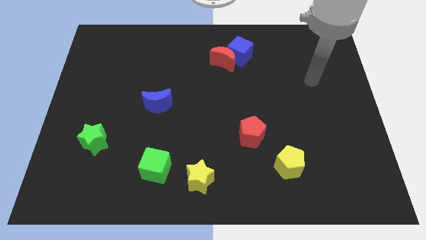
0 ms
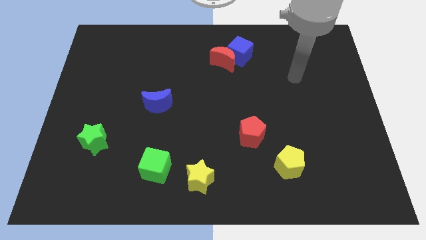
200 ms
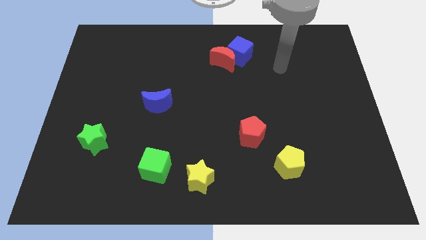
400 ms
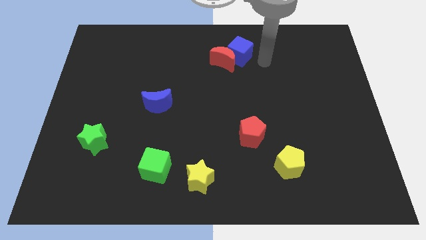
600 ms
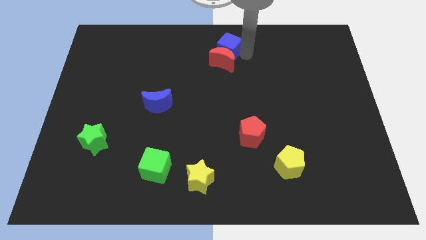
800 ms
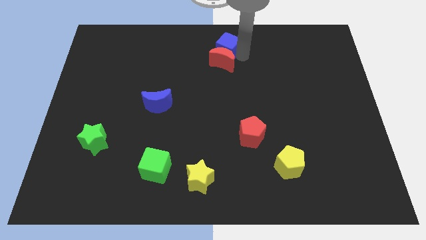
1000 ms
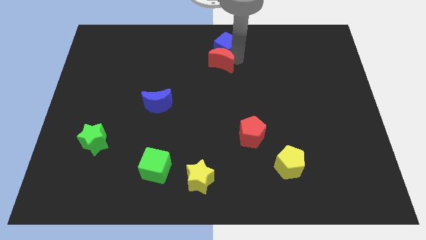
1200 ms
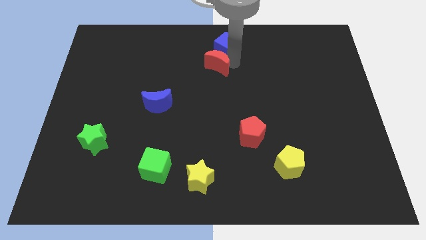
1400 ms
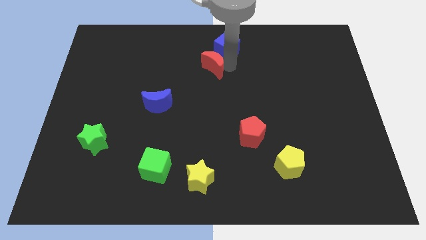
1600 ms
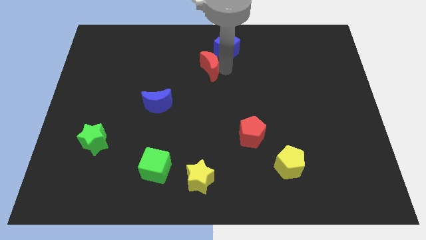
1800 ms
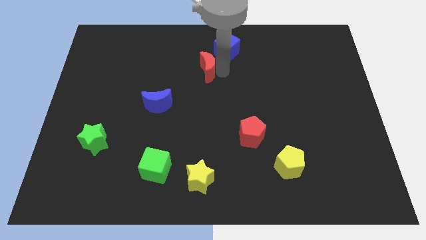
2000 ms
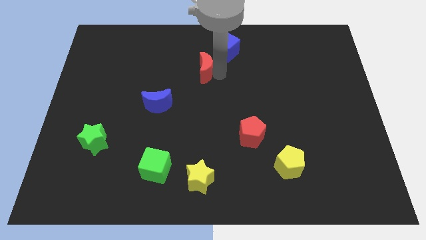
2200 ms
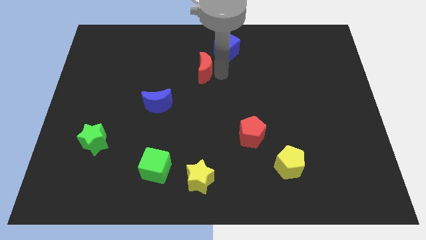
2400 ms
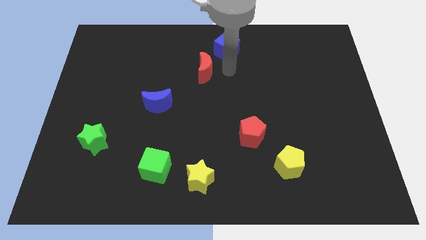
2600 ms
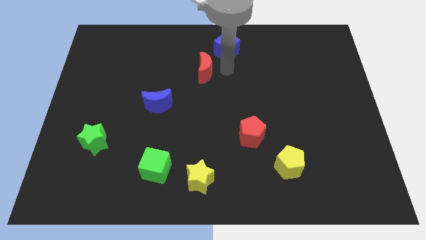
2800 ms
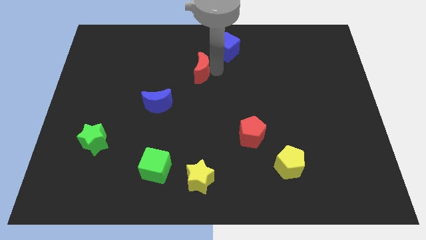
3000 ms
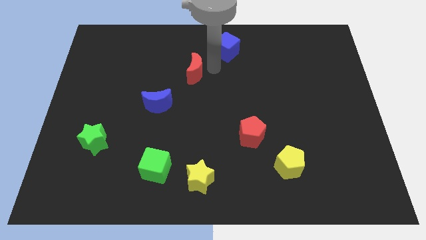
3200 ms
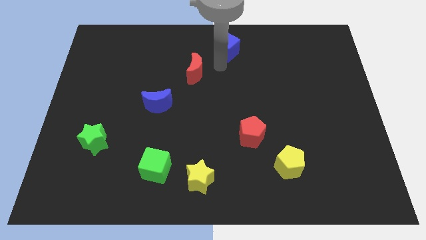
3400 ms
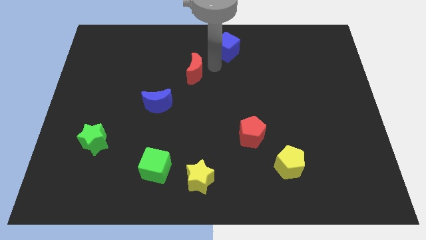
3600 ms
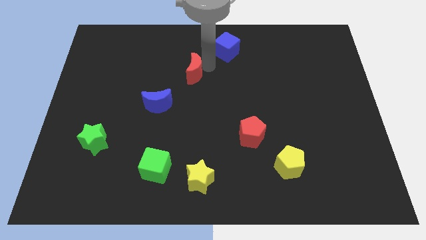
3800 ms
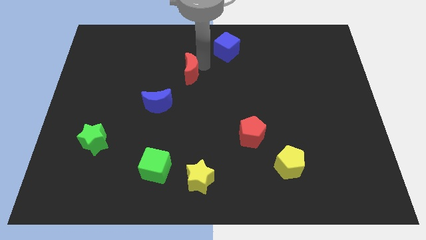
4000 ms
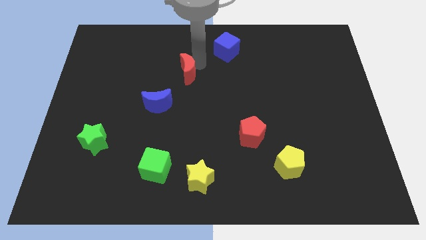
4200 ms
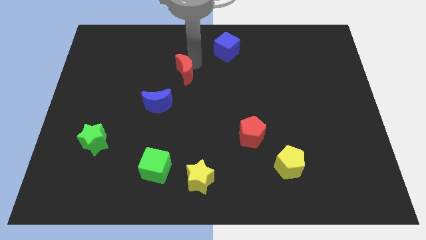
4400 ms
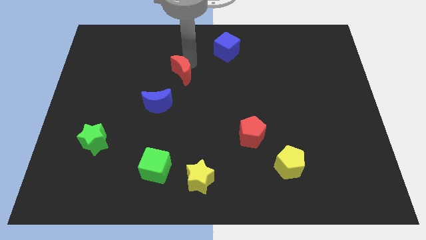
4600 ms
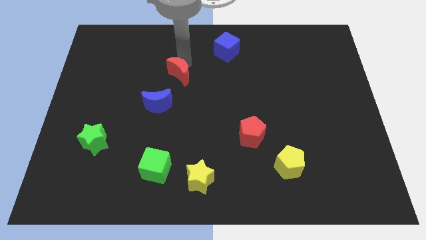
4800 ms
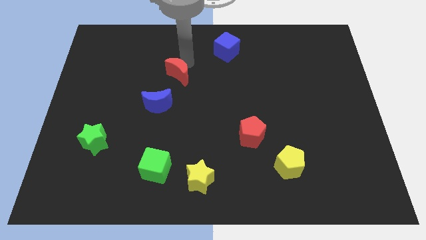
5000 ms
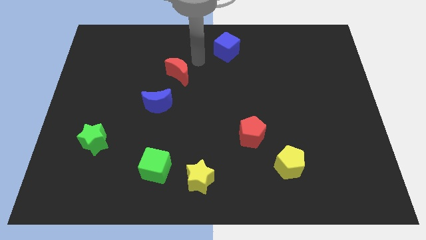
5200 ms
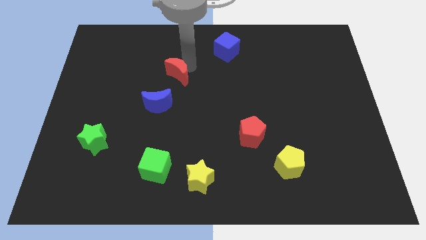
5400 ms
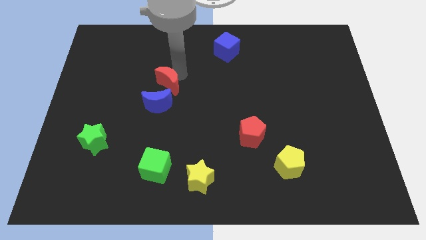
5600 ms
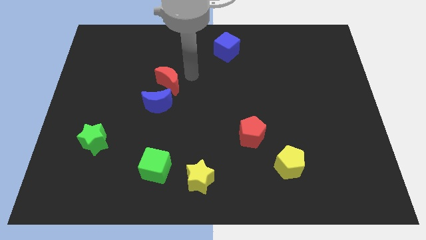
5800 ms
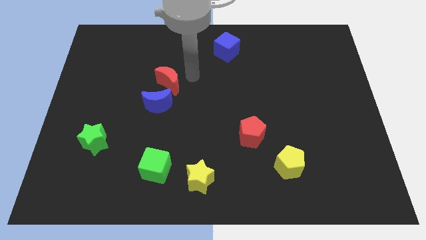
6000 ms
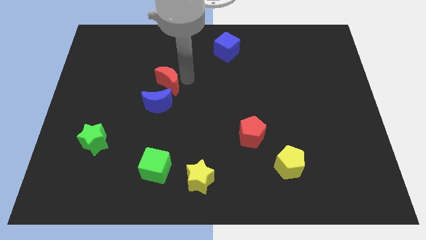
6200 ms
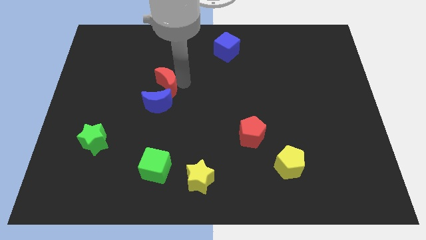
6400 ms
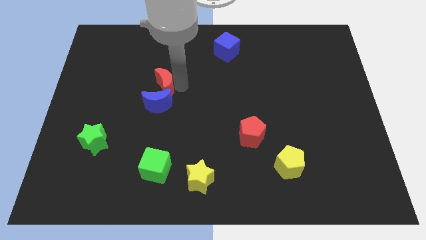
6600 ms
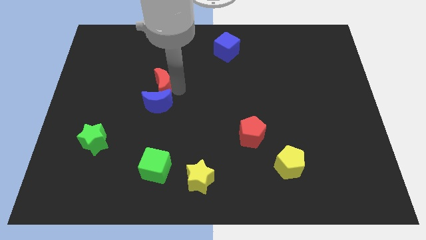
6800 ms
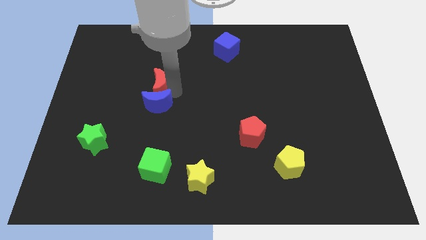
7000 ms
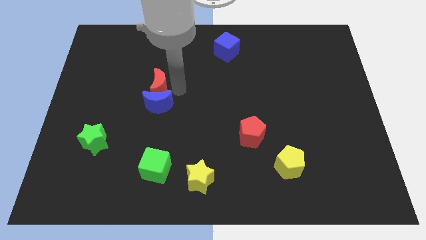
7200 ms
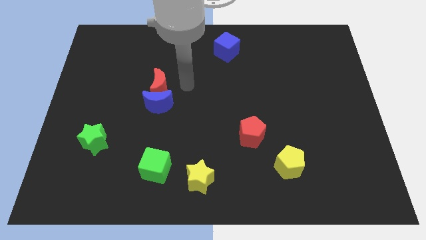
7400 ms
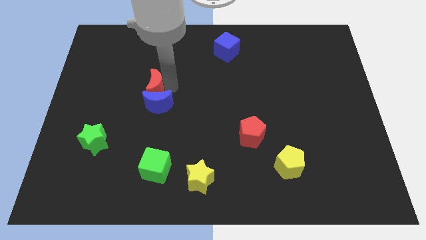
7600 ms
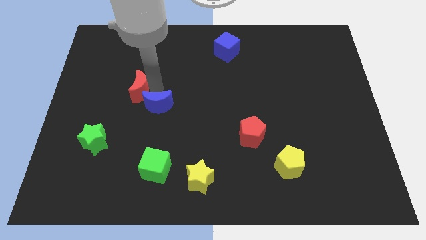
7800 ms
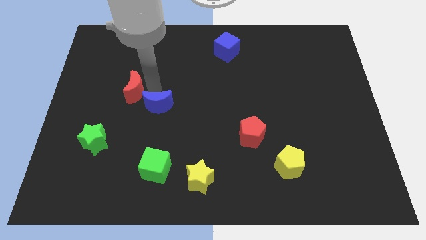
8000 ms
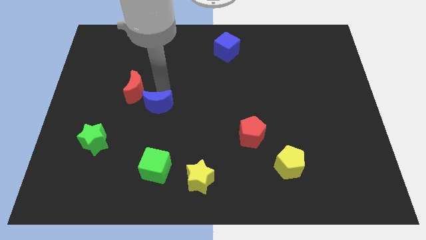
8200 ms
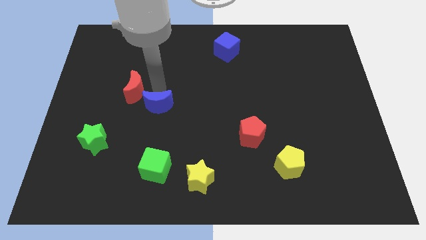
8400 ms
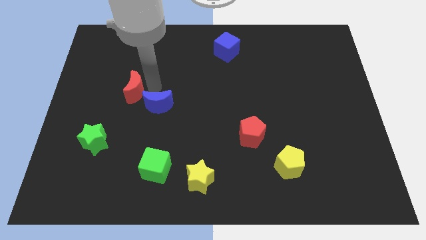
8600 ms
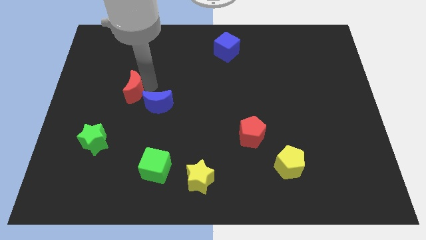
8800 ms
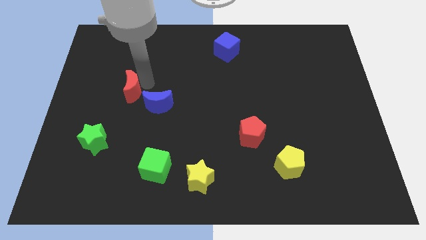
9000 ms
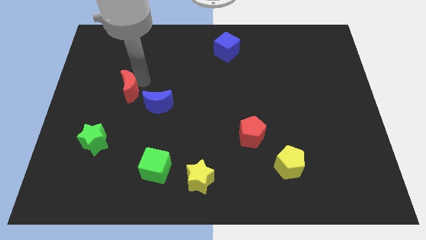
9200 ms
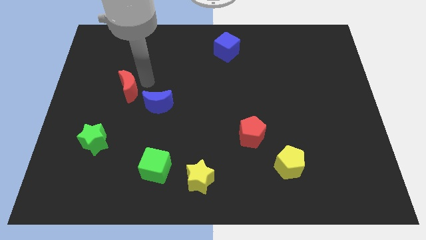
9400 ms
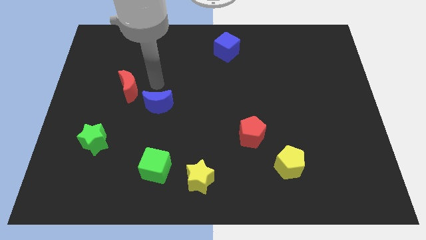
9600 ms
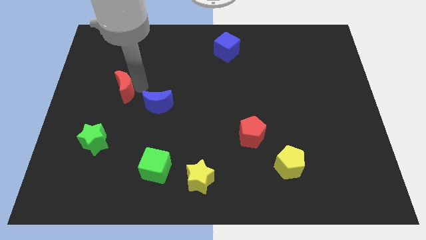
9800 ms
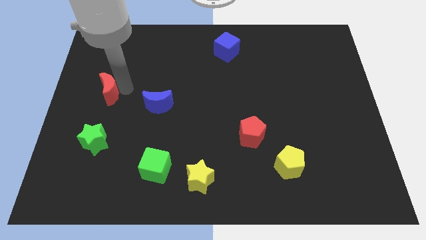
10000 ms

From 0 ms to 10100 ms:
put the red moon to the center left

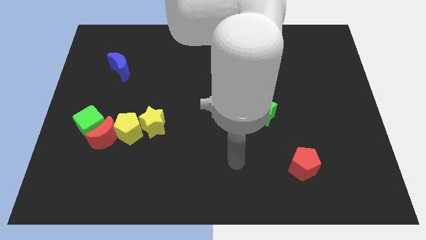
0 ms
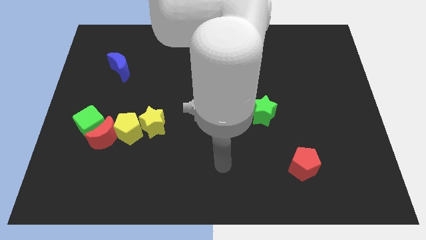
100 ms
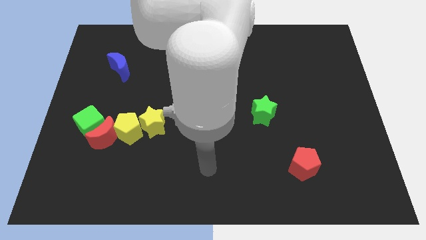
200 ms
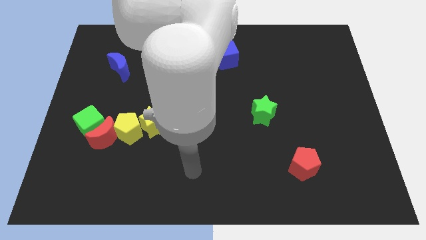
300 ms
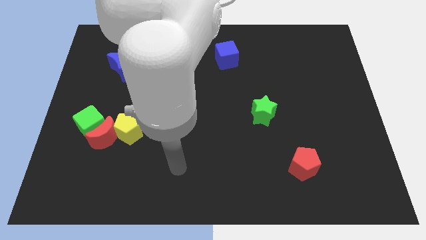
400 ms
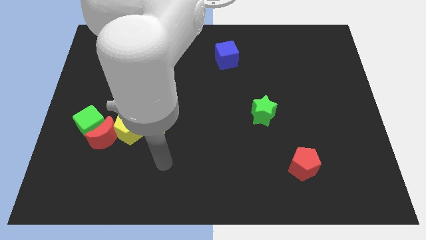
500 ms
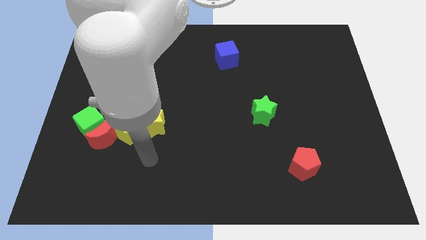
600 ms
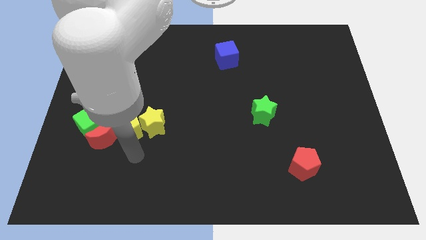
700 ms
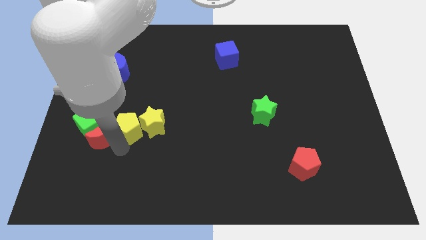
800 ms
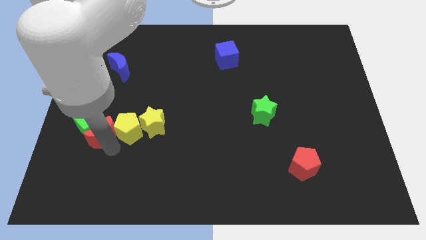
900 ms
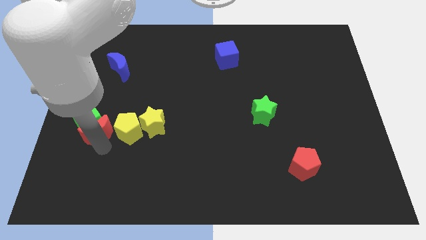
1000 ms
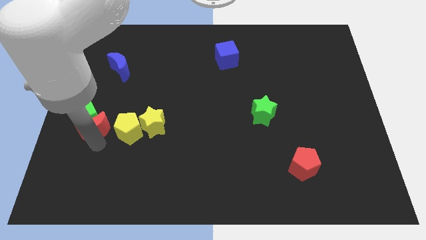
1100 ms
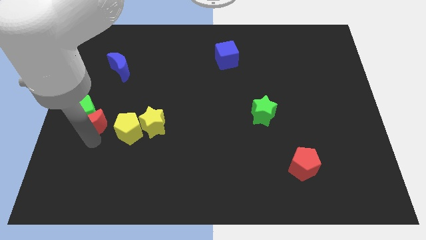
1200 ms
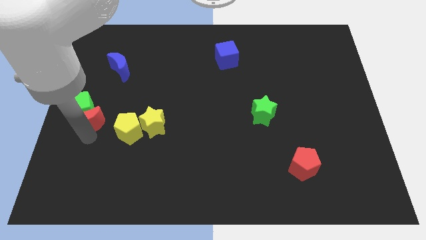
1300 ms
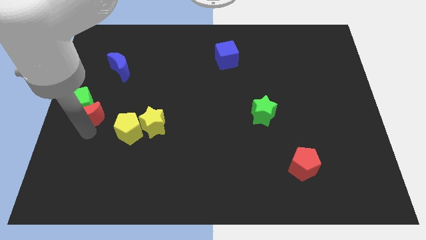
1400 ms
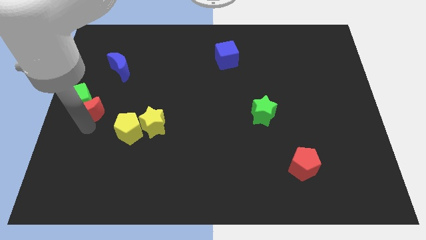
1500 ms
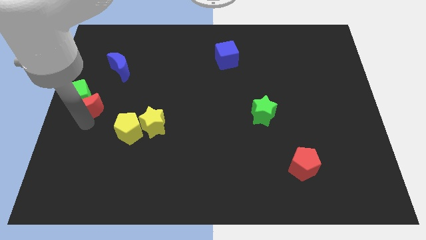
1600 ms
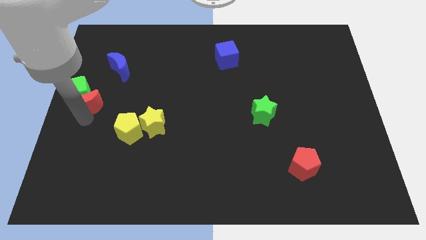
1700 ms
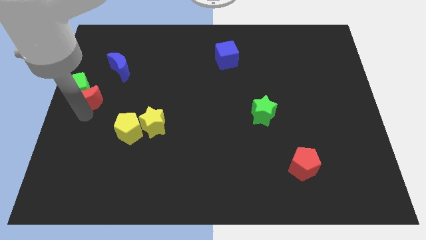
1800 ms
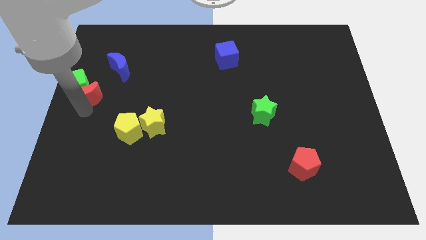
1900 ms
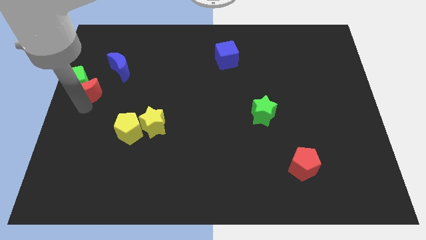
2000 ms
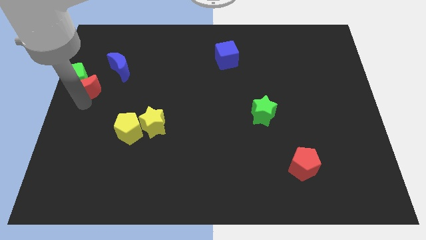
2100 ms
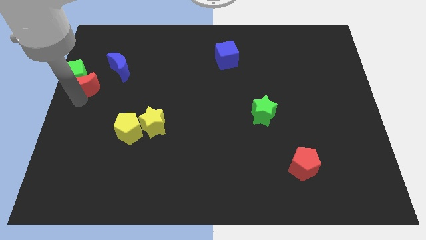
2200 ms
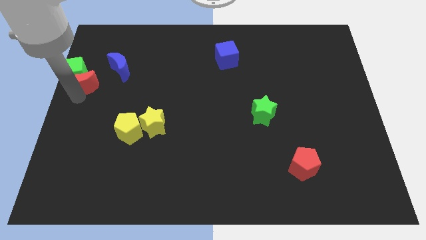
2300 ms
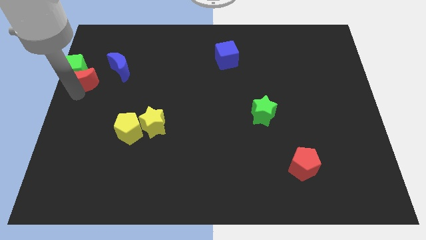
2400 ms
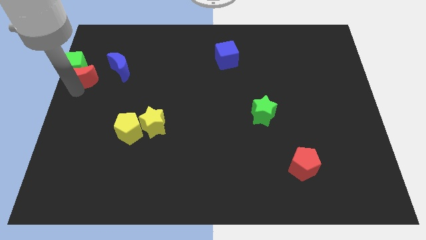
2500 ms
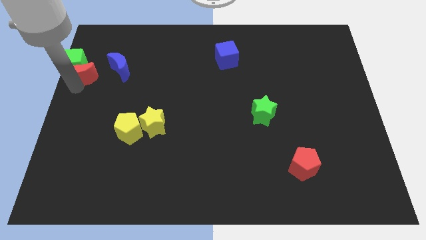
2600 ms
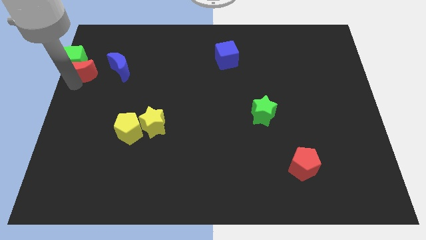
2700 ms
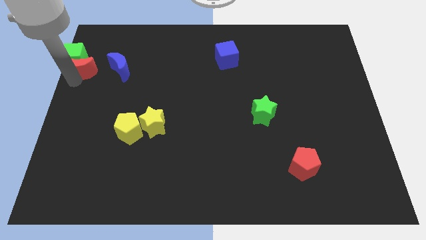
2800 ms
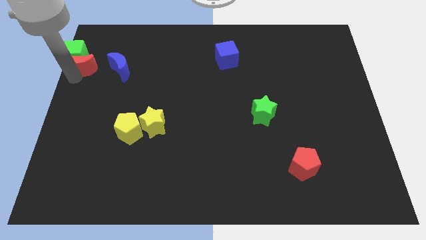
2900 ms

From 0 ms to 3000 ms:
push the green cube to the top left corner
